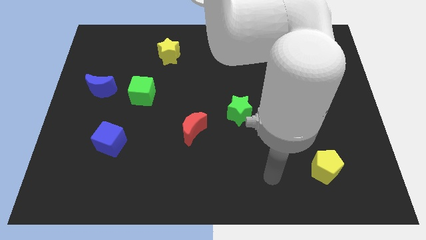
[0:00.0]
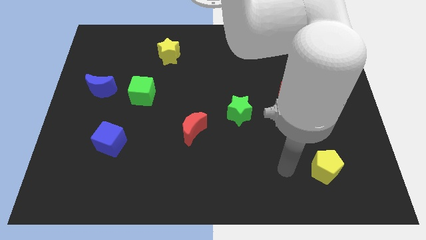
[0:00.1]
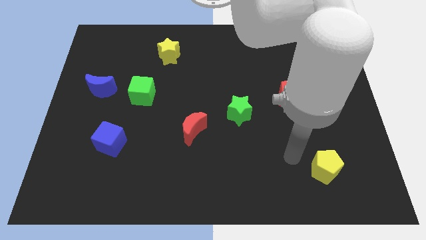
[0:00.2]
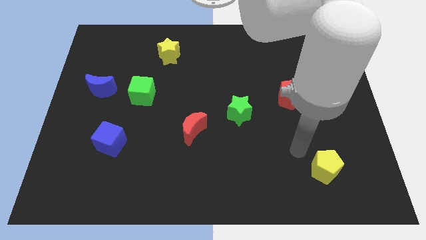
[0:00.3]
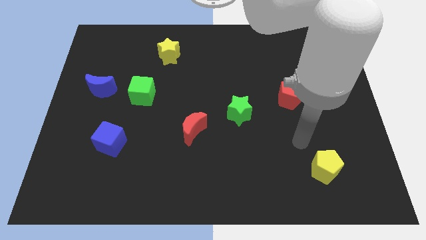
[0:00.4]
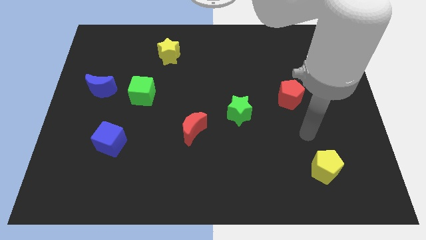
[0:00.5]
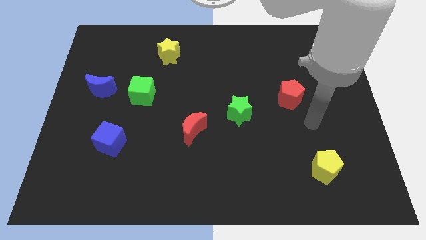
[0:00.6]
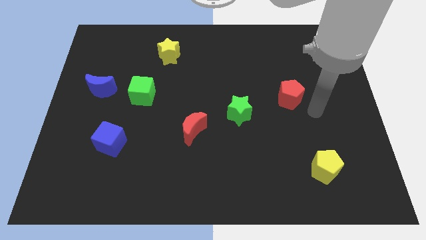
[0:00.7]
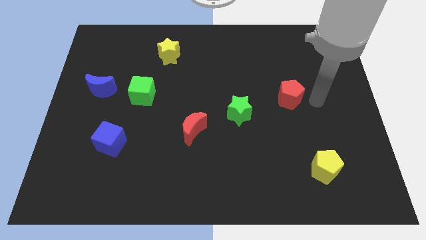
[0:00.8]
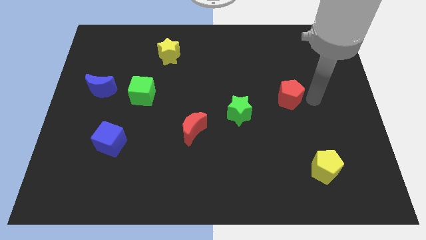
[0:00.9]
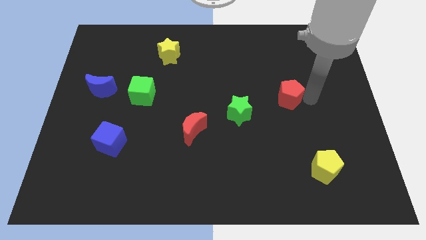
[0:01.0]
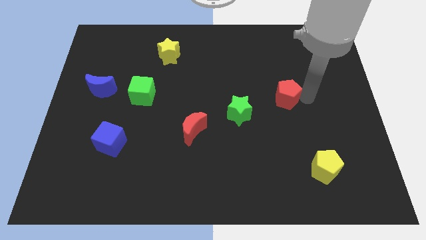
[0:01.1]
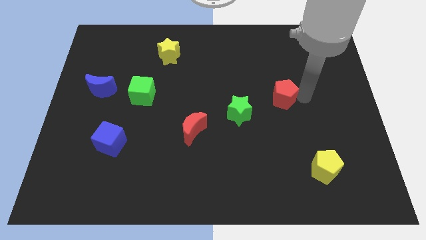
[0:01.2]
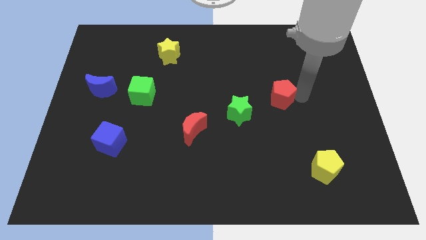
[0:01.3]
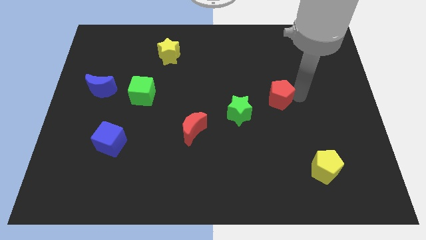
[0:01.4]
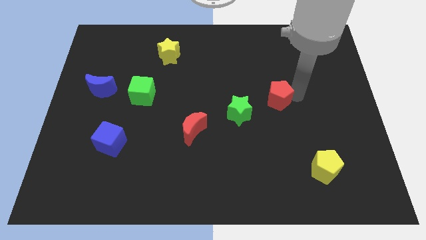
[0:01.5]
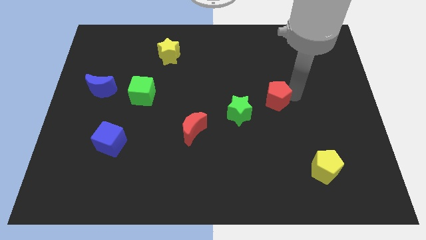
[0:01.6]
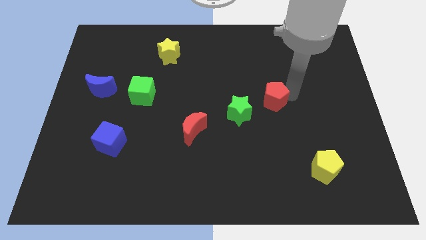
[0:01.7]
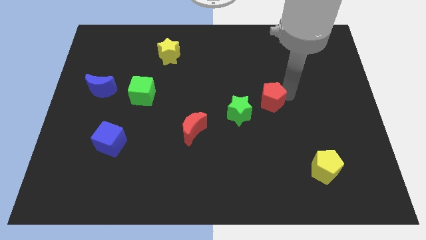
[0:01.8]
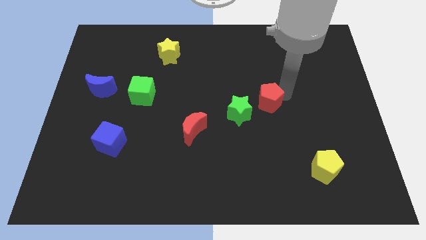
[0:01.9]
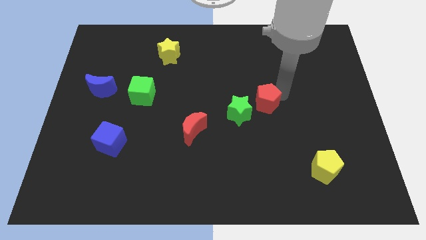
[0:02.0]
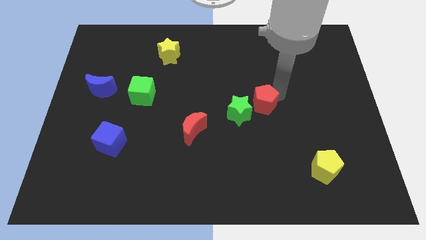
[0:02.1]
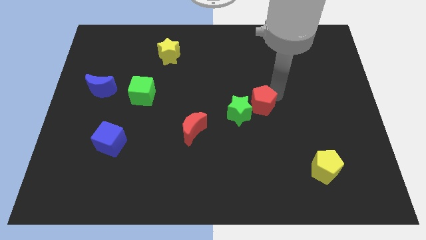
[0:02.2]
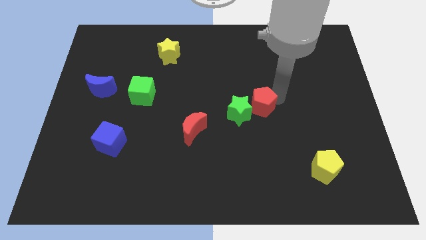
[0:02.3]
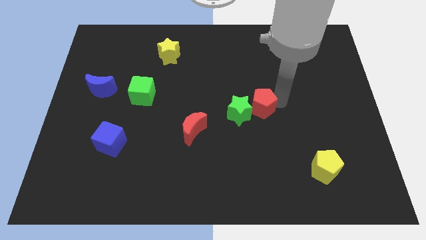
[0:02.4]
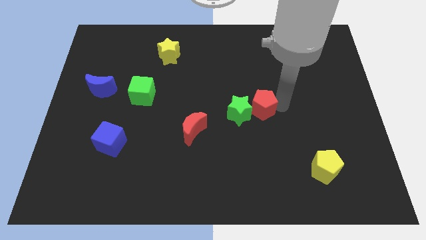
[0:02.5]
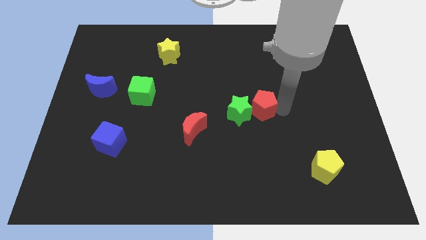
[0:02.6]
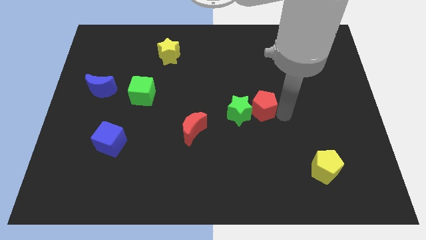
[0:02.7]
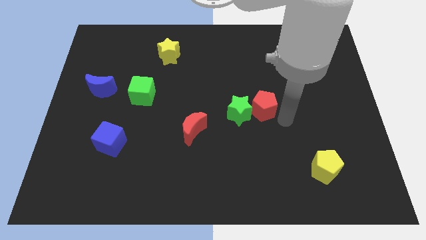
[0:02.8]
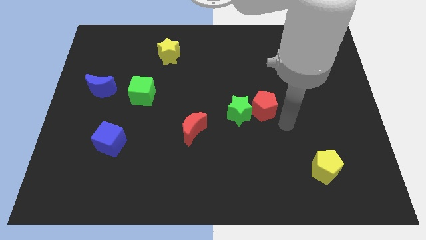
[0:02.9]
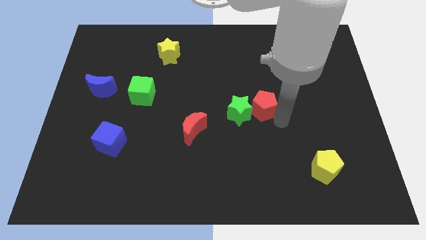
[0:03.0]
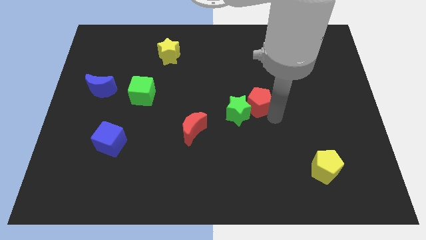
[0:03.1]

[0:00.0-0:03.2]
move the red pentagon left a little bit

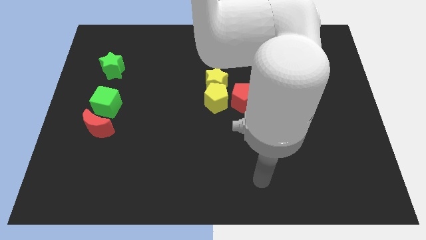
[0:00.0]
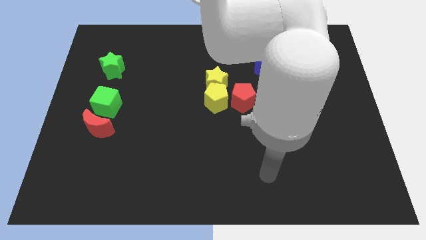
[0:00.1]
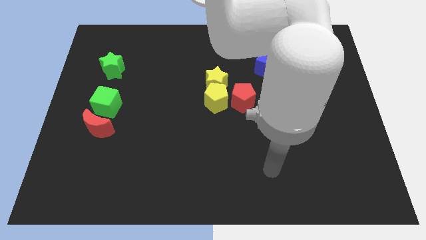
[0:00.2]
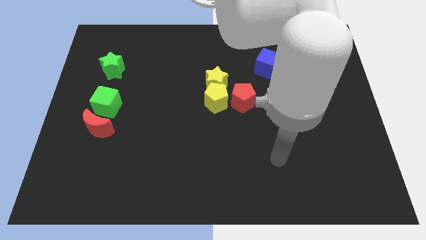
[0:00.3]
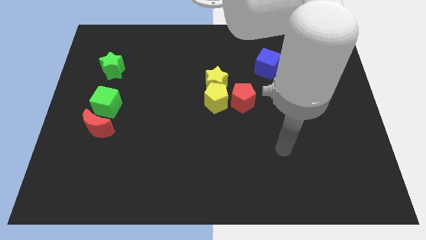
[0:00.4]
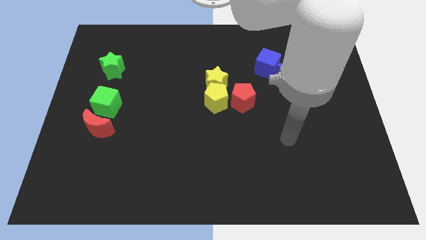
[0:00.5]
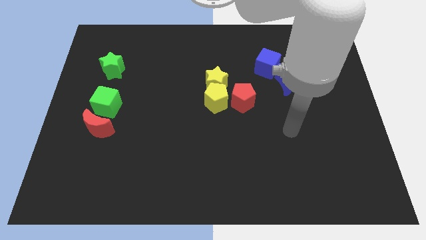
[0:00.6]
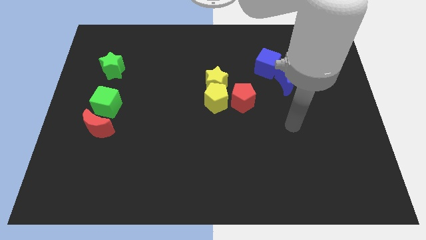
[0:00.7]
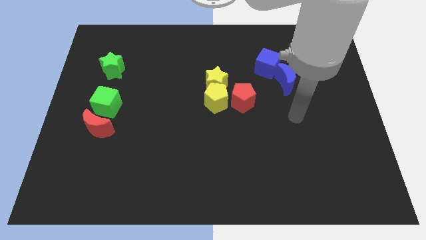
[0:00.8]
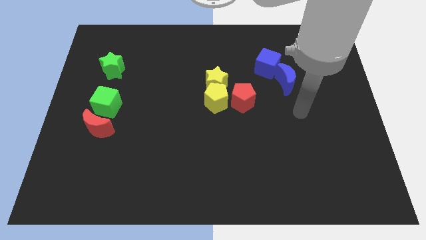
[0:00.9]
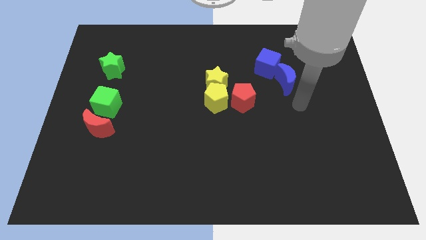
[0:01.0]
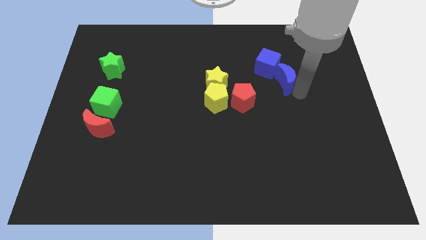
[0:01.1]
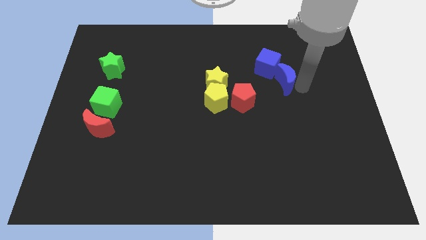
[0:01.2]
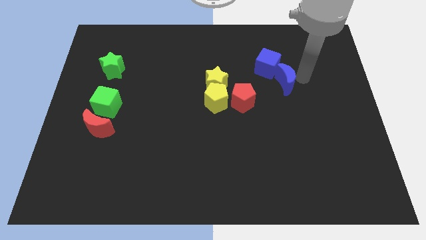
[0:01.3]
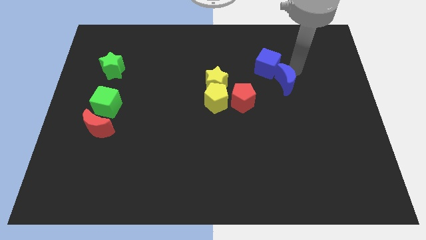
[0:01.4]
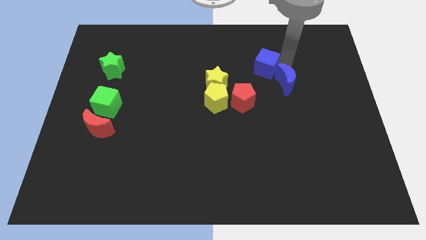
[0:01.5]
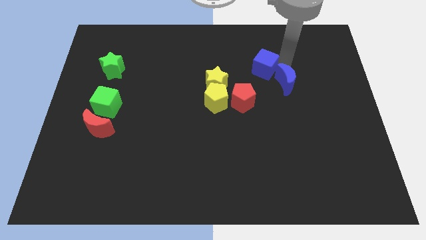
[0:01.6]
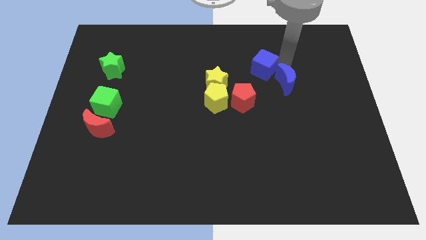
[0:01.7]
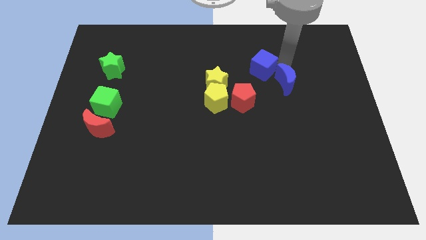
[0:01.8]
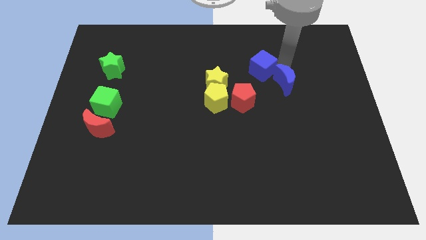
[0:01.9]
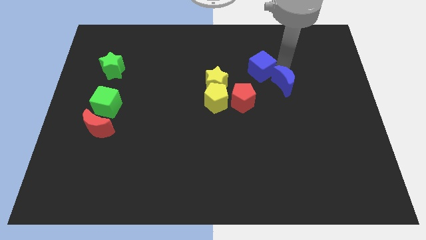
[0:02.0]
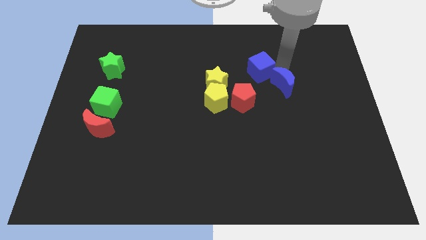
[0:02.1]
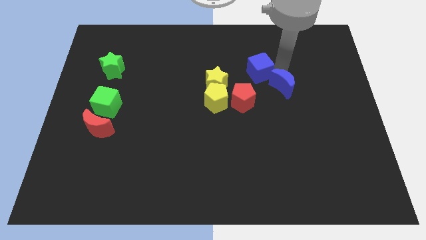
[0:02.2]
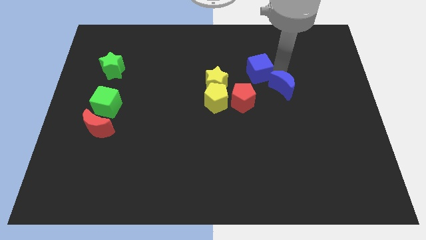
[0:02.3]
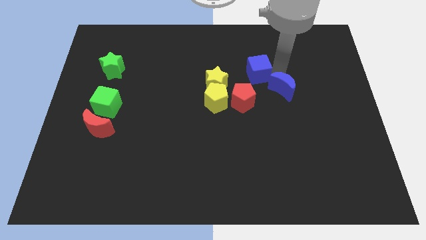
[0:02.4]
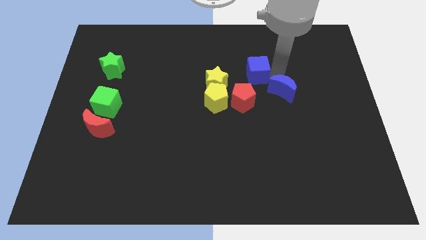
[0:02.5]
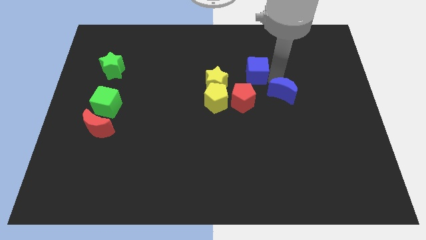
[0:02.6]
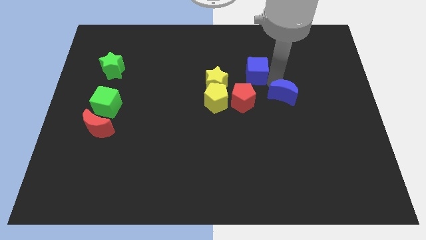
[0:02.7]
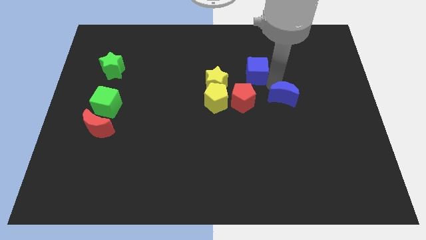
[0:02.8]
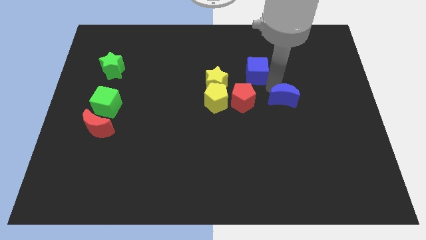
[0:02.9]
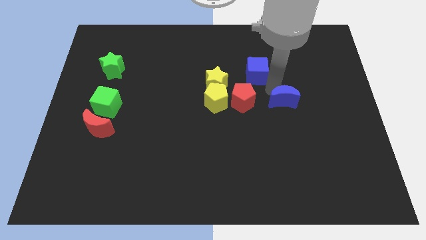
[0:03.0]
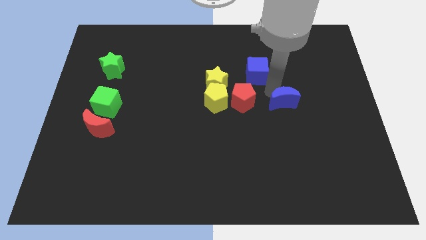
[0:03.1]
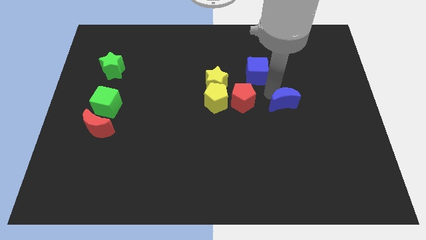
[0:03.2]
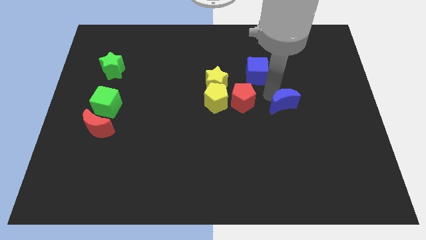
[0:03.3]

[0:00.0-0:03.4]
slide the blue moon downwards a little bit

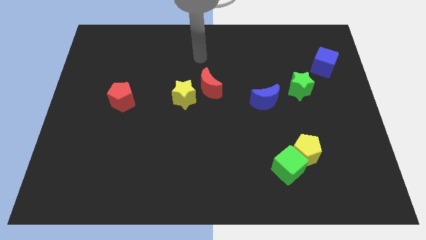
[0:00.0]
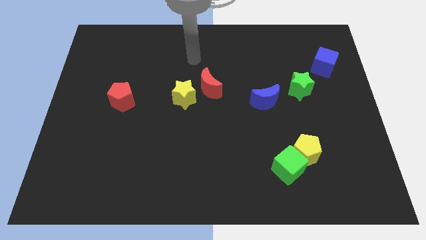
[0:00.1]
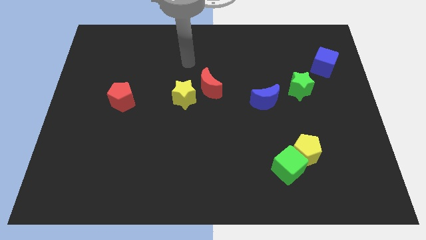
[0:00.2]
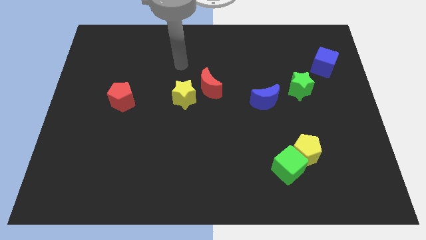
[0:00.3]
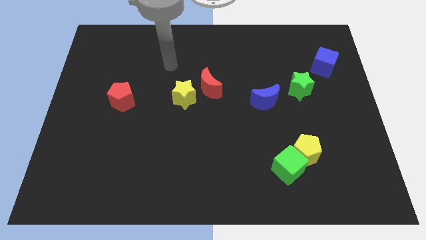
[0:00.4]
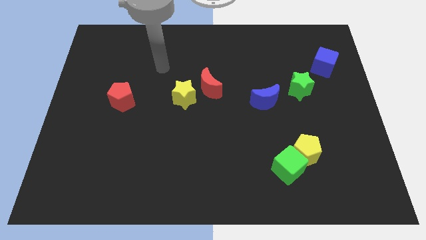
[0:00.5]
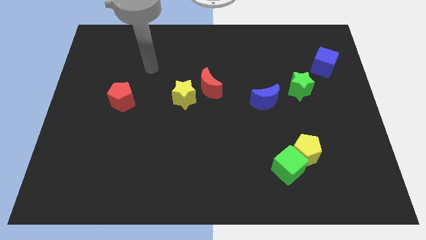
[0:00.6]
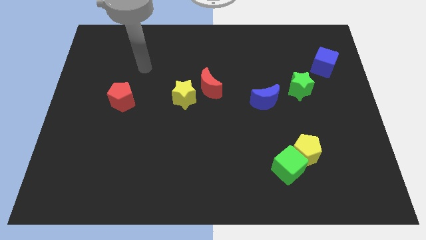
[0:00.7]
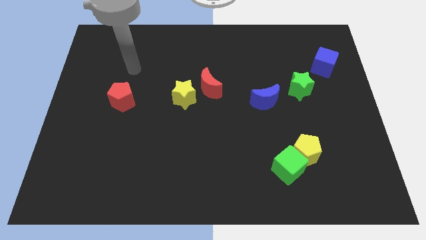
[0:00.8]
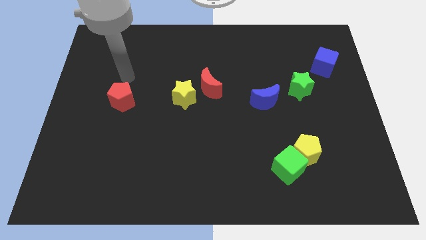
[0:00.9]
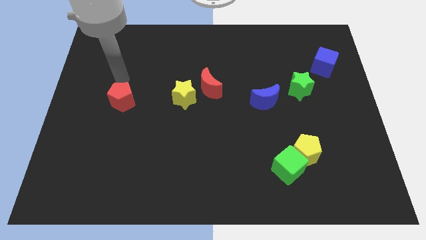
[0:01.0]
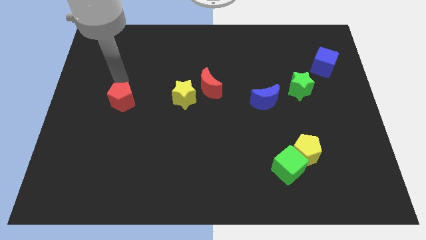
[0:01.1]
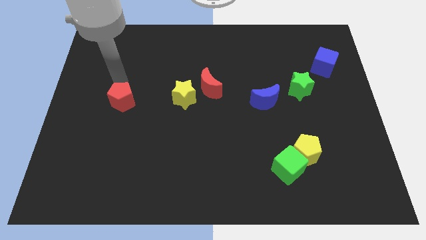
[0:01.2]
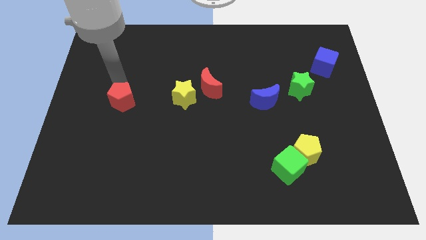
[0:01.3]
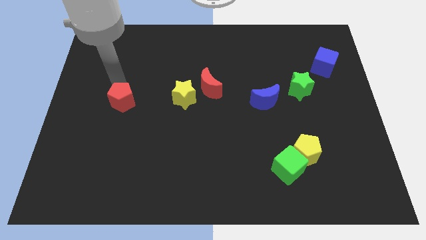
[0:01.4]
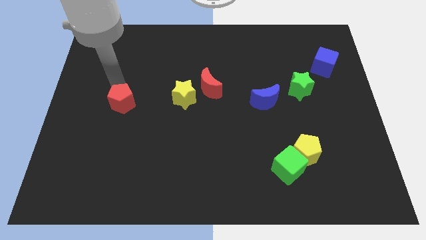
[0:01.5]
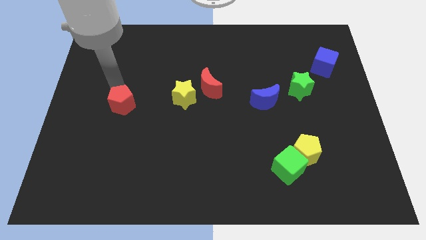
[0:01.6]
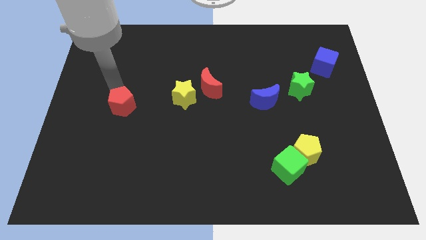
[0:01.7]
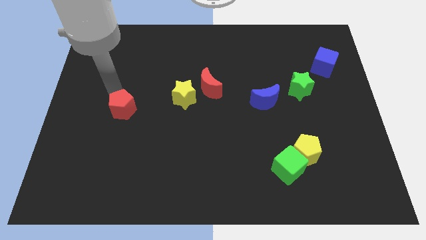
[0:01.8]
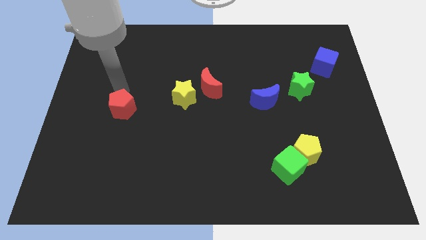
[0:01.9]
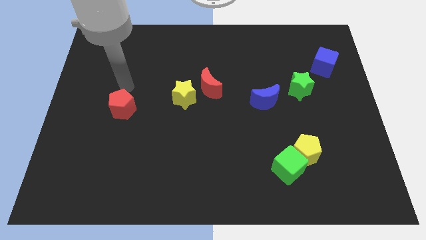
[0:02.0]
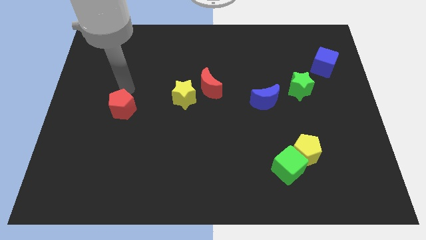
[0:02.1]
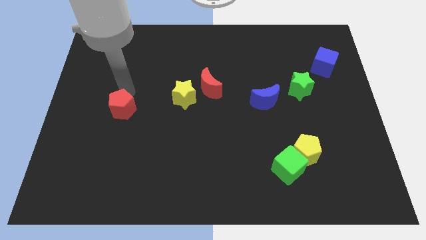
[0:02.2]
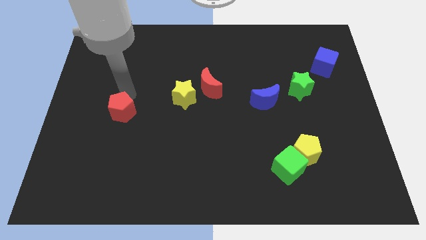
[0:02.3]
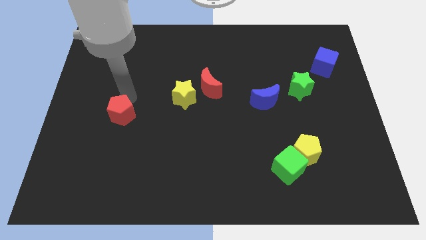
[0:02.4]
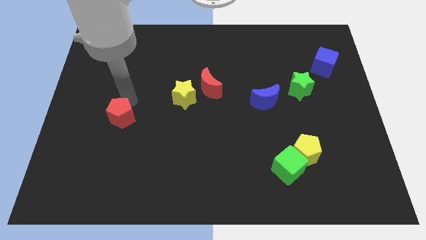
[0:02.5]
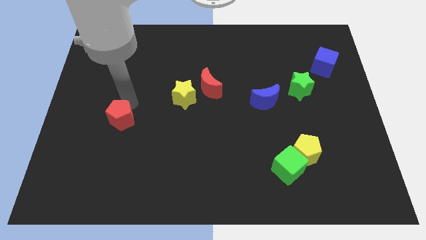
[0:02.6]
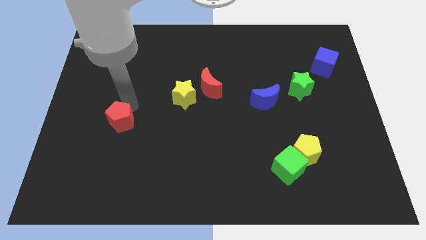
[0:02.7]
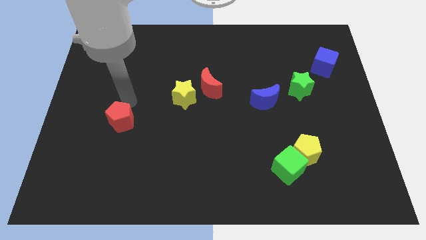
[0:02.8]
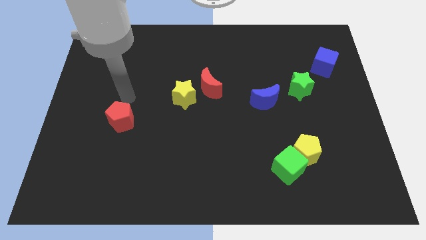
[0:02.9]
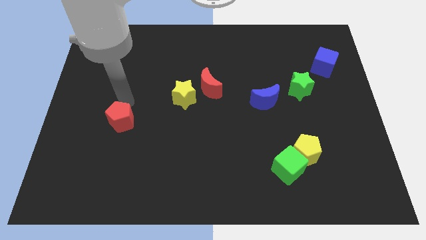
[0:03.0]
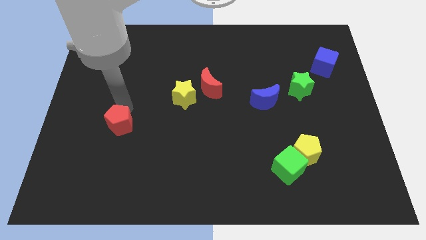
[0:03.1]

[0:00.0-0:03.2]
slightly push the red pentagon downwards
